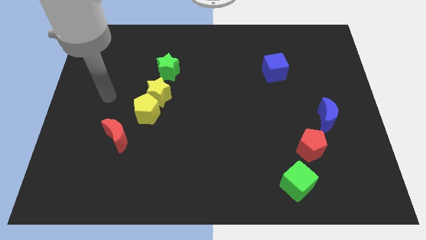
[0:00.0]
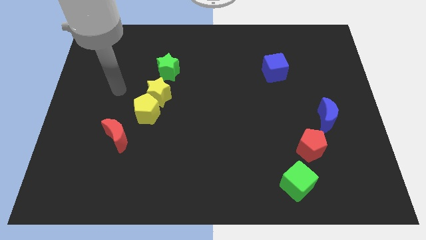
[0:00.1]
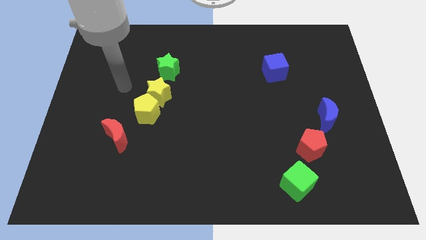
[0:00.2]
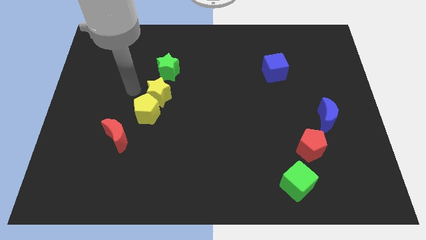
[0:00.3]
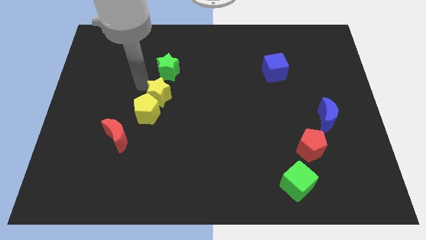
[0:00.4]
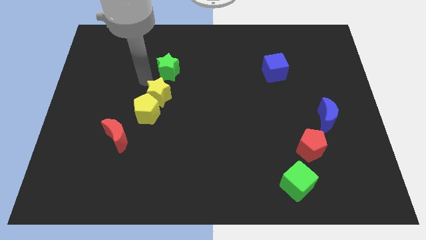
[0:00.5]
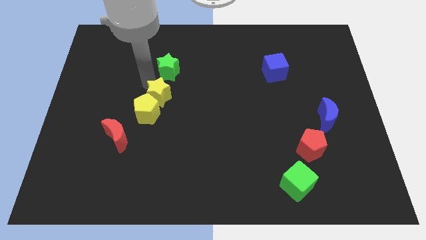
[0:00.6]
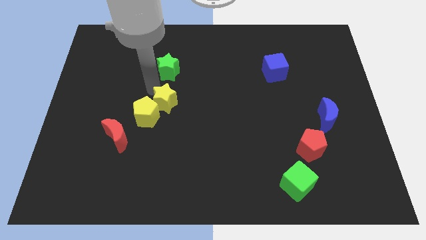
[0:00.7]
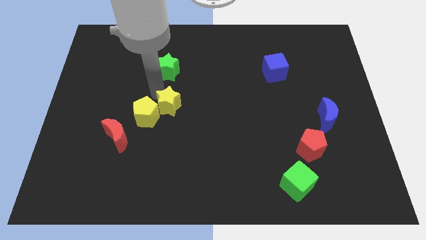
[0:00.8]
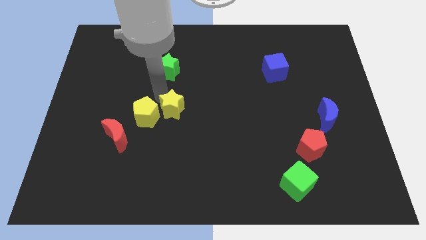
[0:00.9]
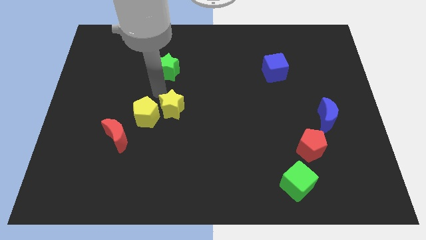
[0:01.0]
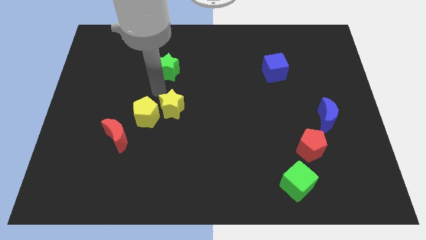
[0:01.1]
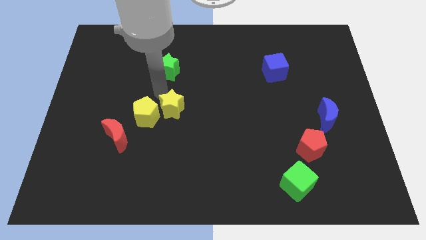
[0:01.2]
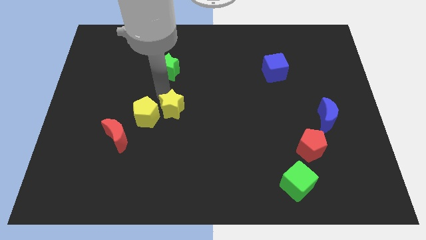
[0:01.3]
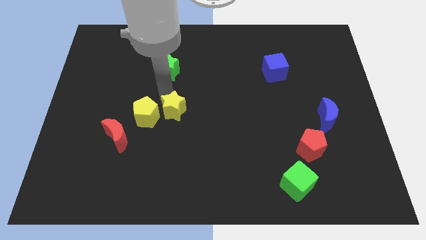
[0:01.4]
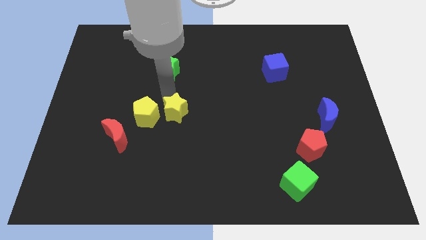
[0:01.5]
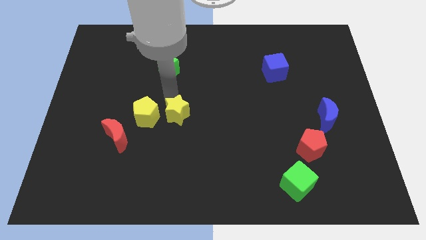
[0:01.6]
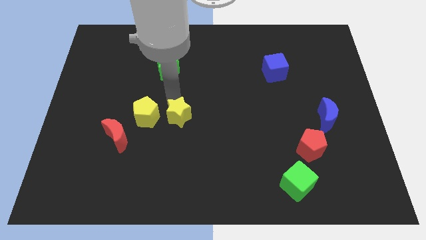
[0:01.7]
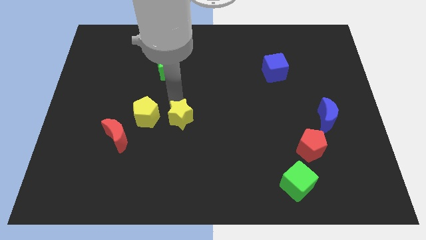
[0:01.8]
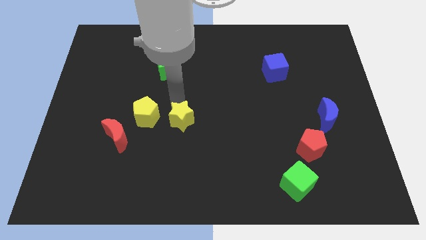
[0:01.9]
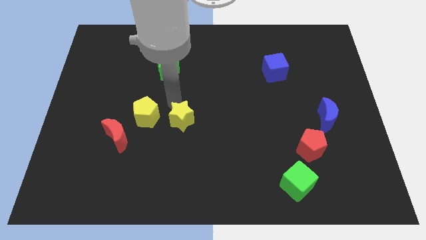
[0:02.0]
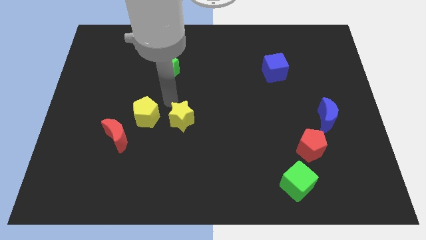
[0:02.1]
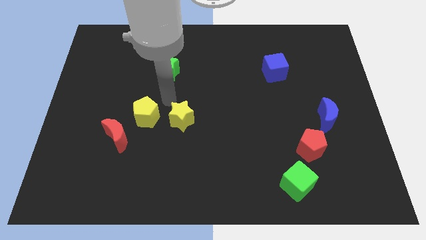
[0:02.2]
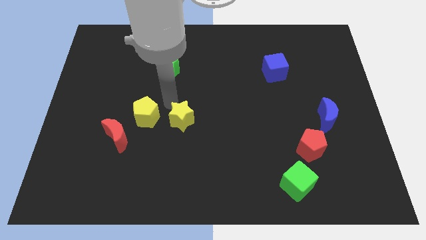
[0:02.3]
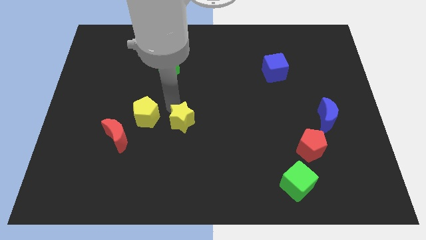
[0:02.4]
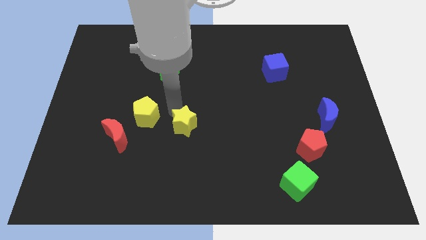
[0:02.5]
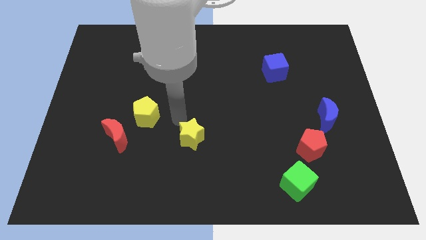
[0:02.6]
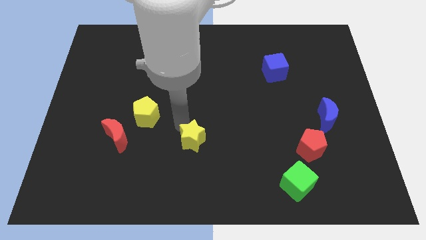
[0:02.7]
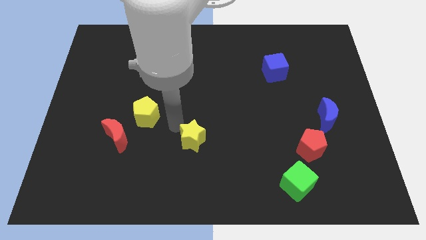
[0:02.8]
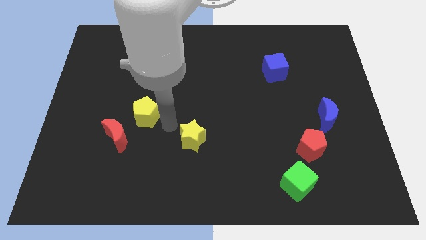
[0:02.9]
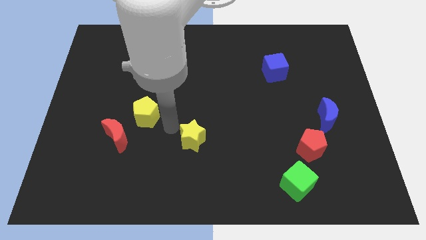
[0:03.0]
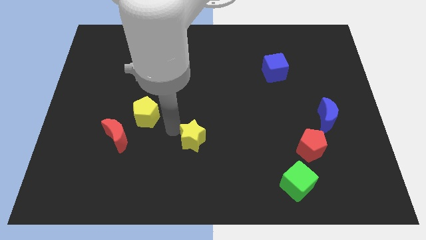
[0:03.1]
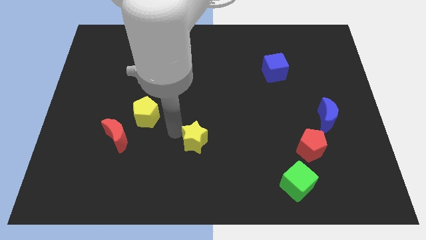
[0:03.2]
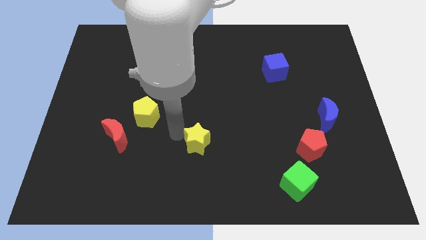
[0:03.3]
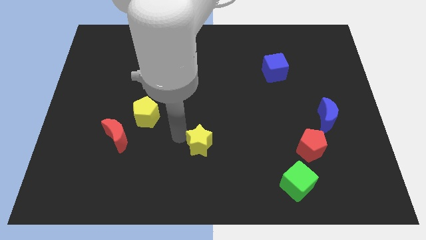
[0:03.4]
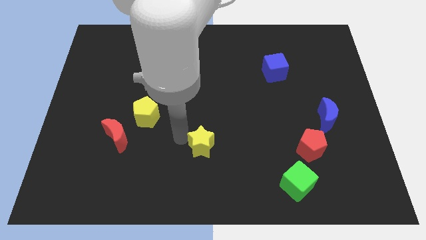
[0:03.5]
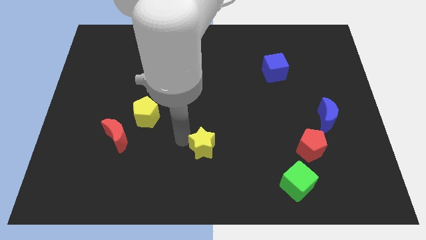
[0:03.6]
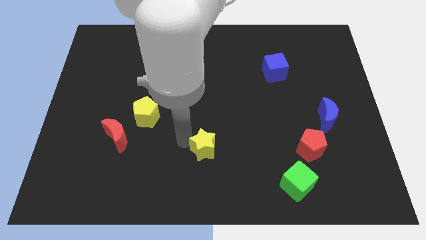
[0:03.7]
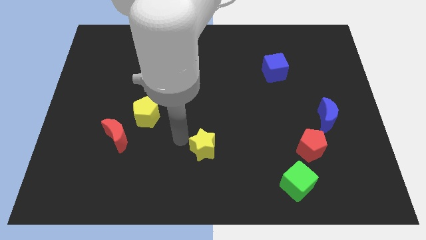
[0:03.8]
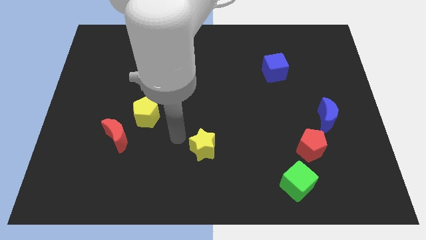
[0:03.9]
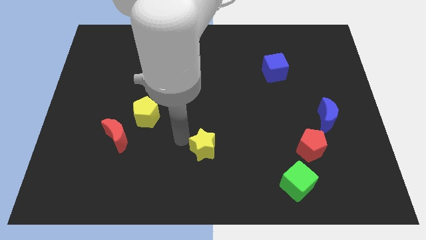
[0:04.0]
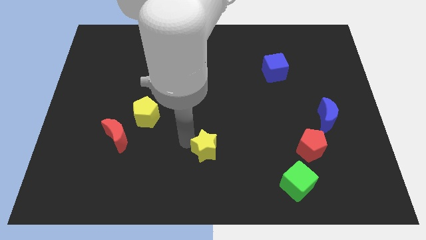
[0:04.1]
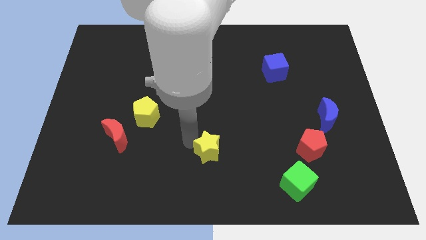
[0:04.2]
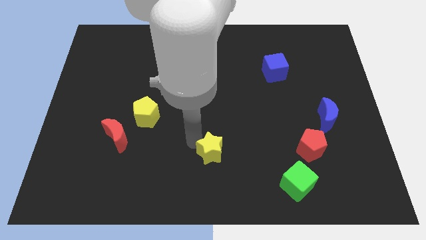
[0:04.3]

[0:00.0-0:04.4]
push the yellow star diagonally downwards and to the right

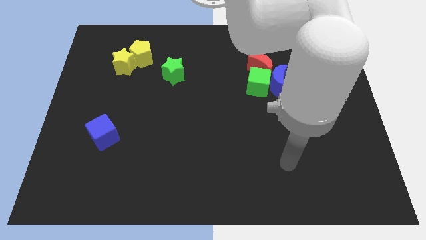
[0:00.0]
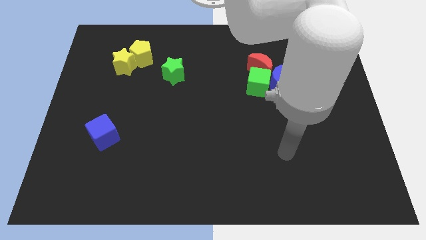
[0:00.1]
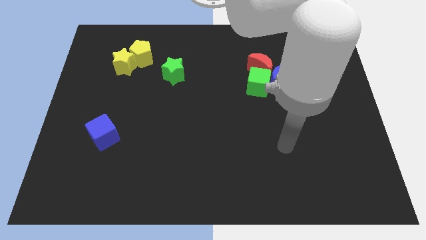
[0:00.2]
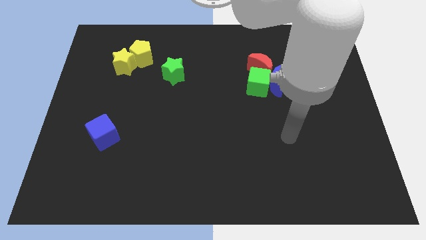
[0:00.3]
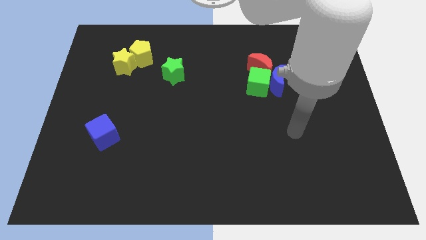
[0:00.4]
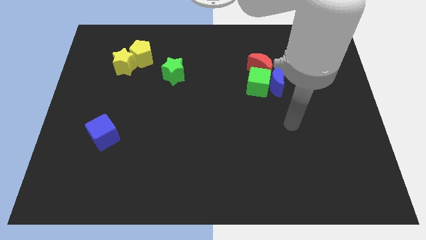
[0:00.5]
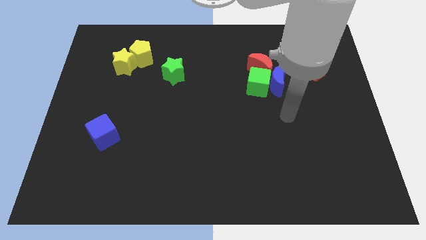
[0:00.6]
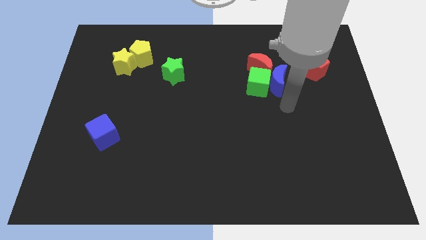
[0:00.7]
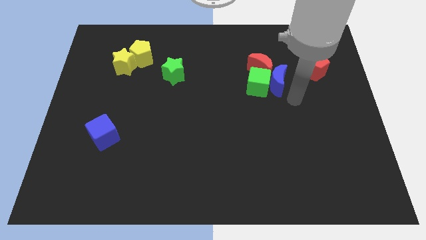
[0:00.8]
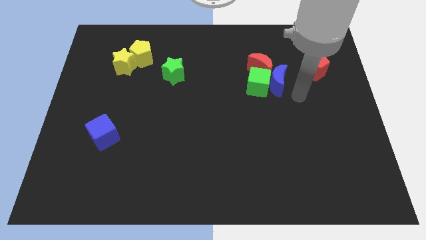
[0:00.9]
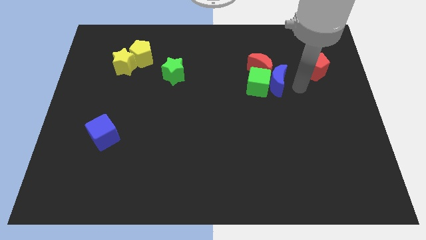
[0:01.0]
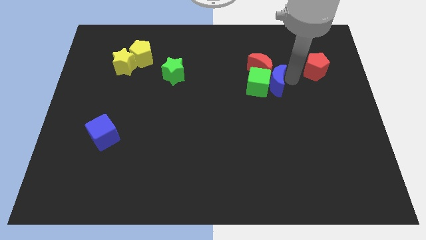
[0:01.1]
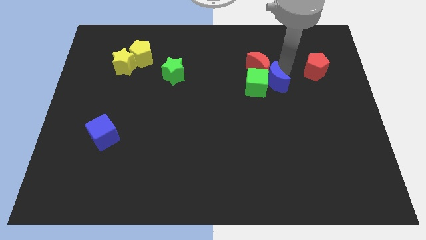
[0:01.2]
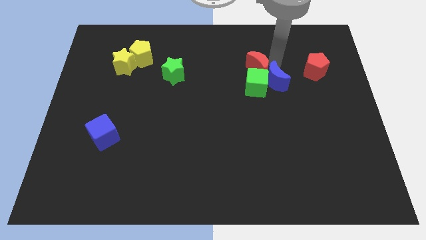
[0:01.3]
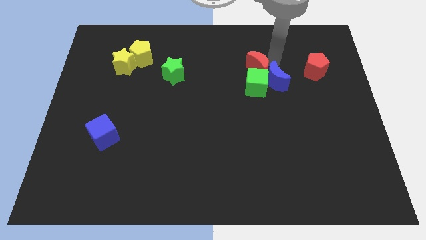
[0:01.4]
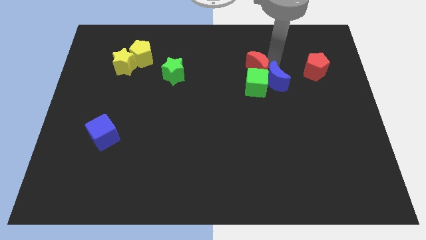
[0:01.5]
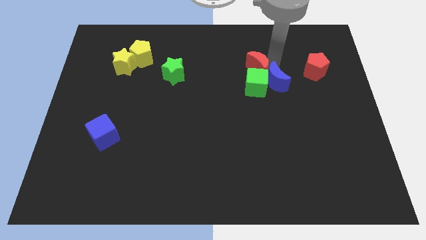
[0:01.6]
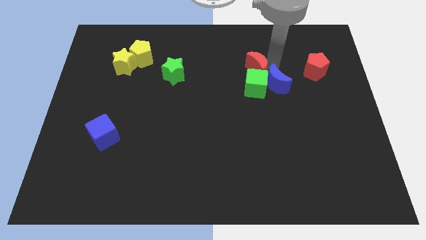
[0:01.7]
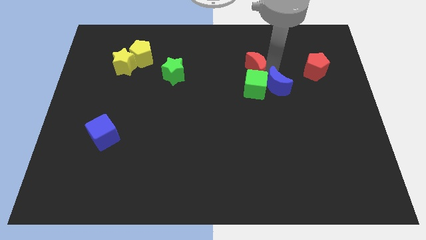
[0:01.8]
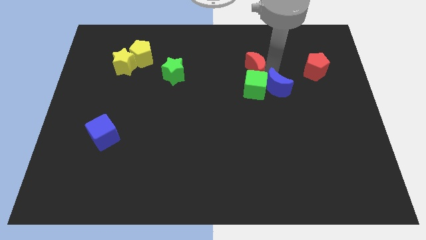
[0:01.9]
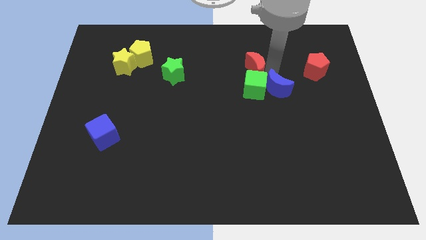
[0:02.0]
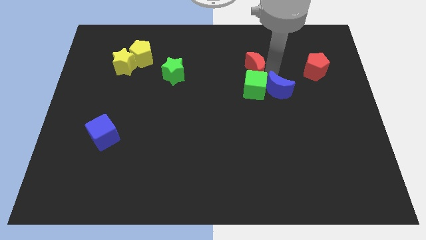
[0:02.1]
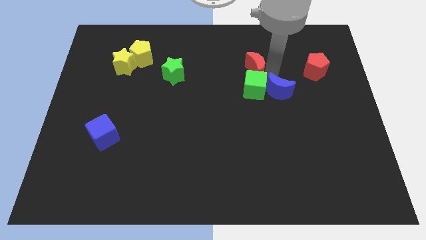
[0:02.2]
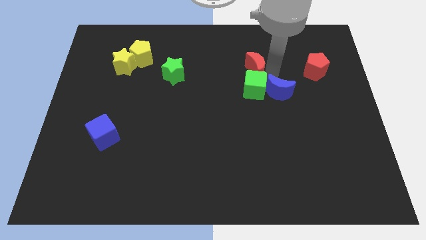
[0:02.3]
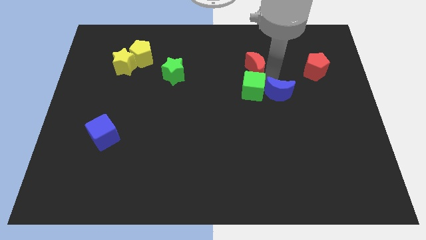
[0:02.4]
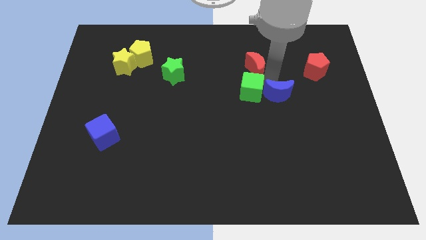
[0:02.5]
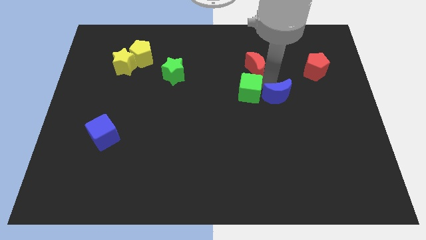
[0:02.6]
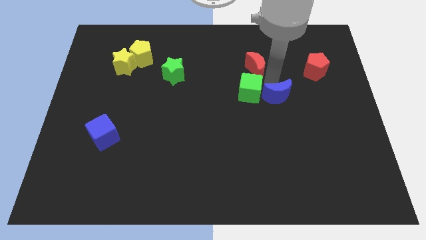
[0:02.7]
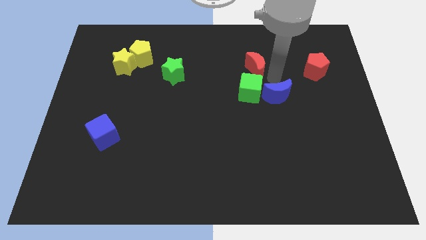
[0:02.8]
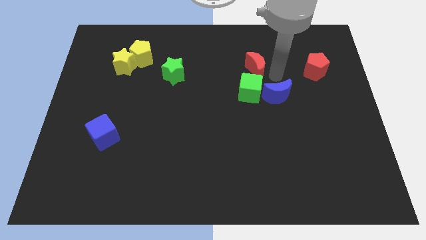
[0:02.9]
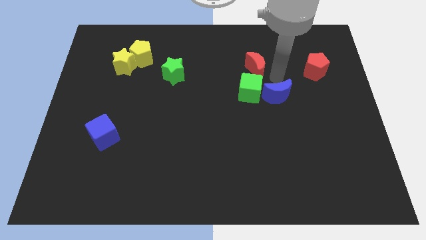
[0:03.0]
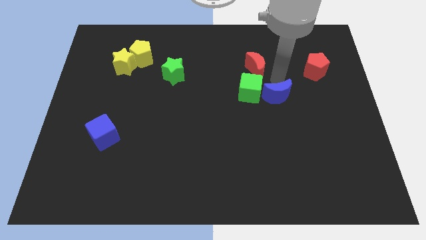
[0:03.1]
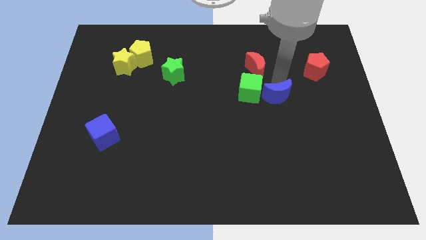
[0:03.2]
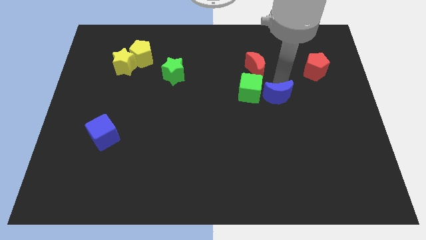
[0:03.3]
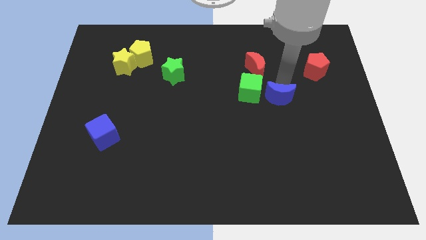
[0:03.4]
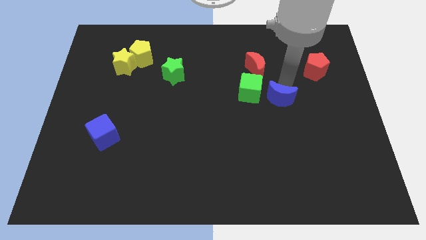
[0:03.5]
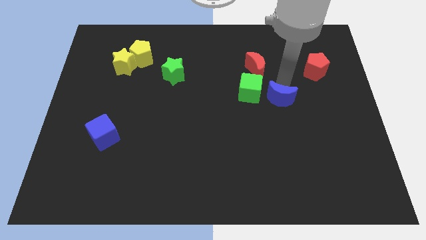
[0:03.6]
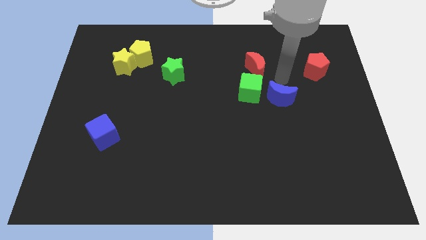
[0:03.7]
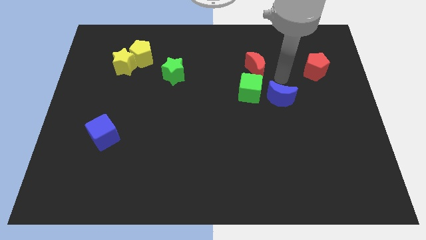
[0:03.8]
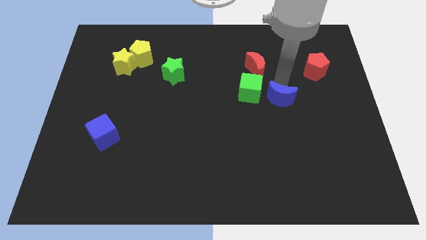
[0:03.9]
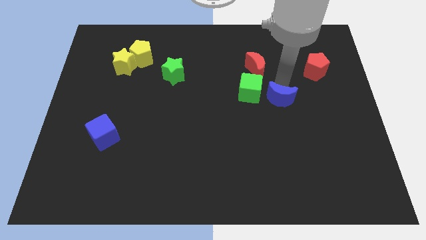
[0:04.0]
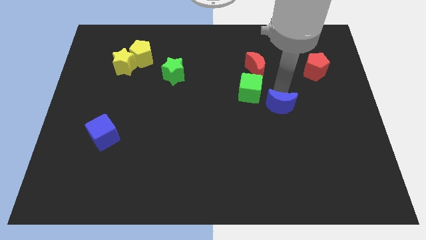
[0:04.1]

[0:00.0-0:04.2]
slightly move the blue moon down
